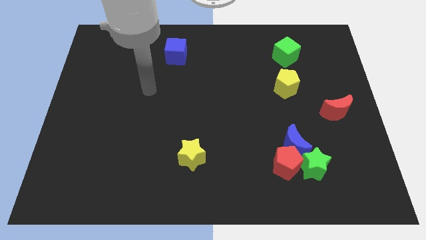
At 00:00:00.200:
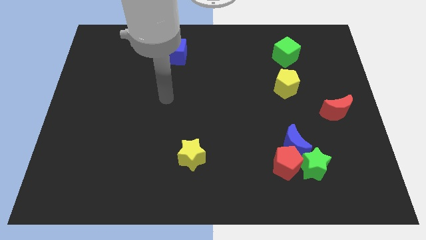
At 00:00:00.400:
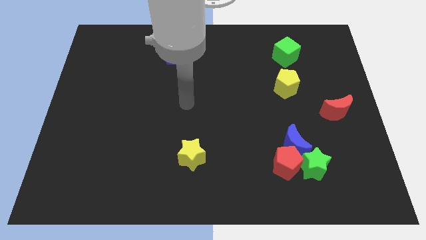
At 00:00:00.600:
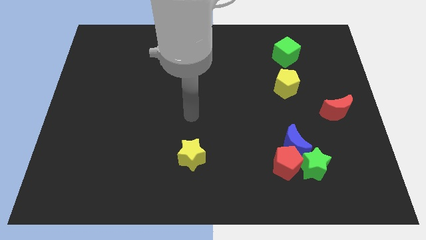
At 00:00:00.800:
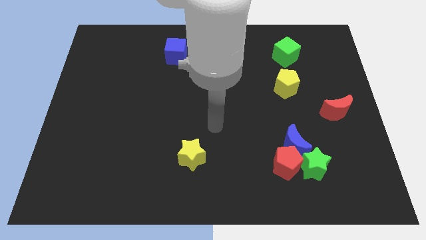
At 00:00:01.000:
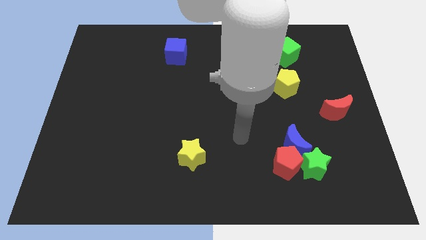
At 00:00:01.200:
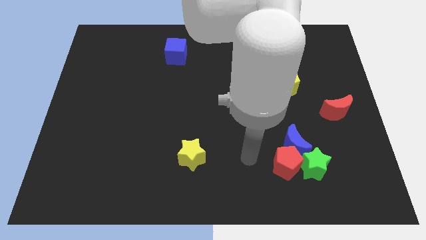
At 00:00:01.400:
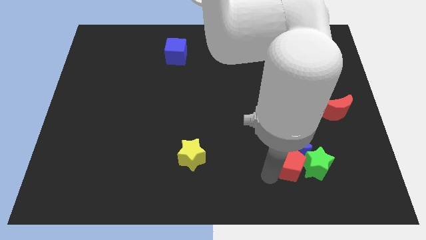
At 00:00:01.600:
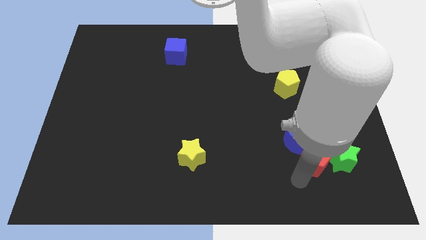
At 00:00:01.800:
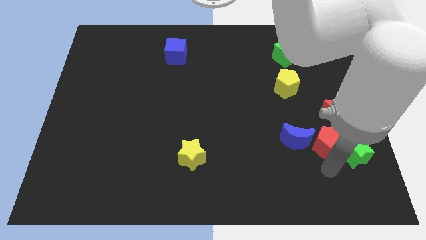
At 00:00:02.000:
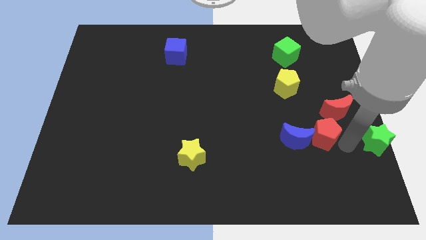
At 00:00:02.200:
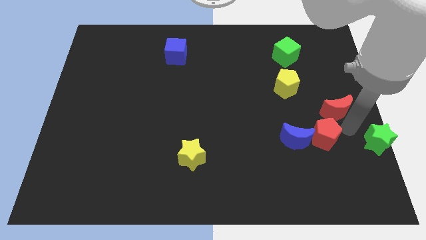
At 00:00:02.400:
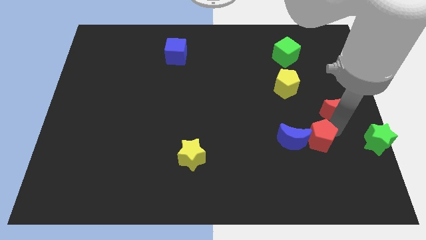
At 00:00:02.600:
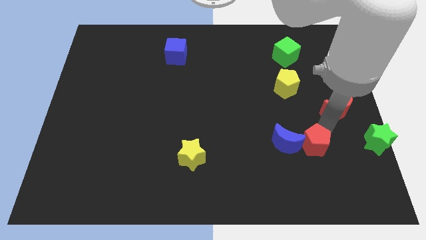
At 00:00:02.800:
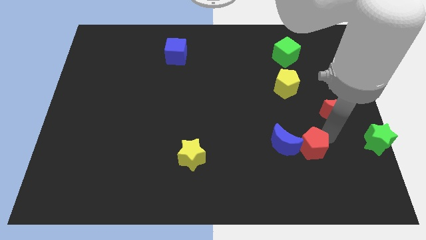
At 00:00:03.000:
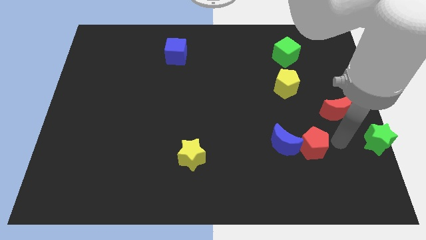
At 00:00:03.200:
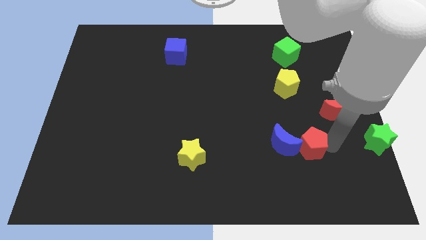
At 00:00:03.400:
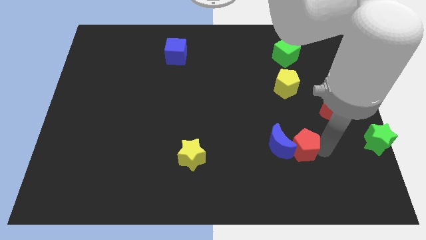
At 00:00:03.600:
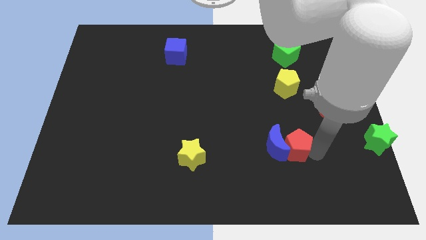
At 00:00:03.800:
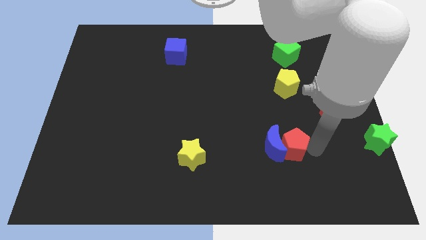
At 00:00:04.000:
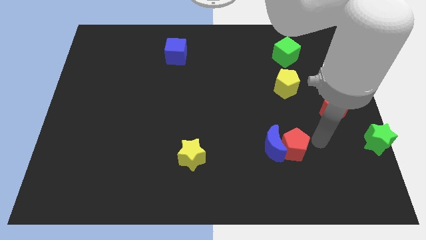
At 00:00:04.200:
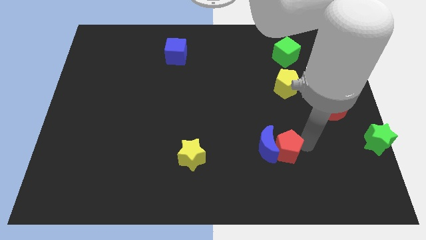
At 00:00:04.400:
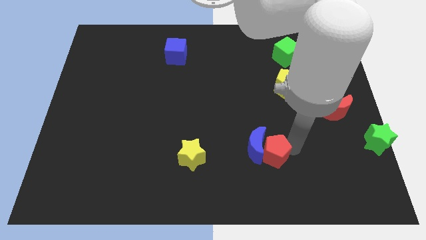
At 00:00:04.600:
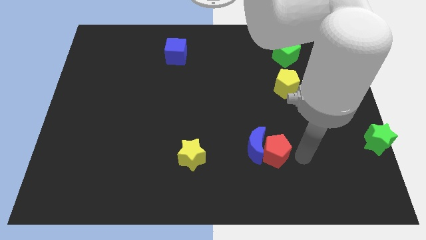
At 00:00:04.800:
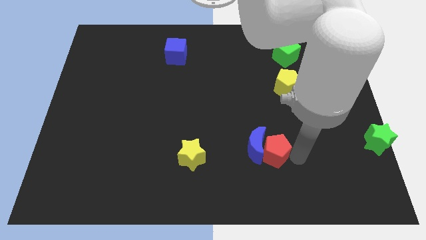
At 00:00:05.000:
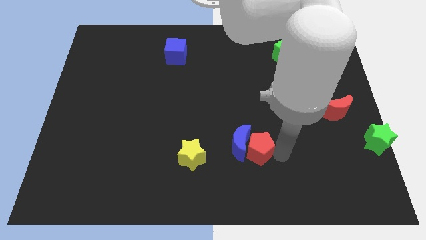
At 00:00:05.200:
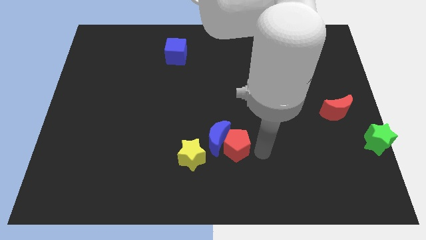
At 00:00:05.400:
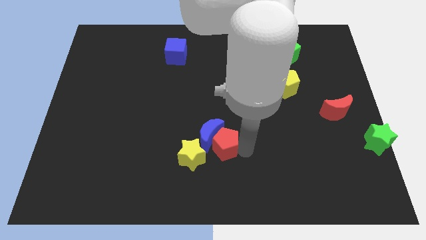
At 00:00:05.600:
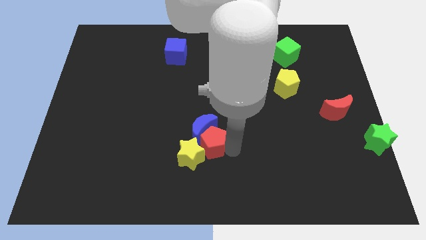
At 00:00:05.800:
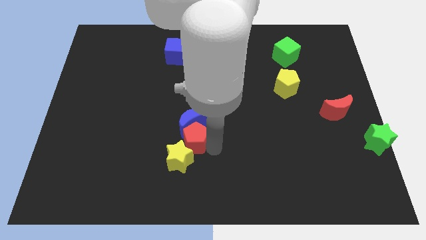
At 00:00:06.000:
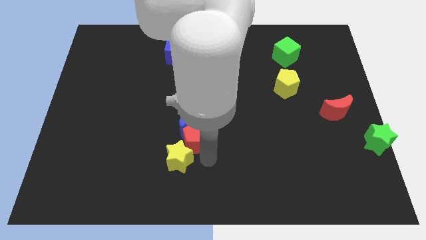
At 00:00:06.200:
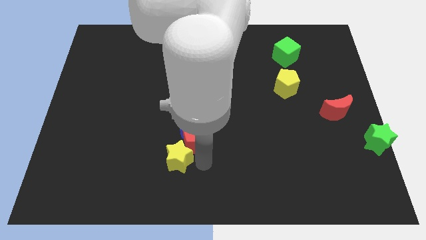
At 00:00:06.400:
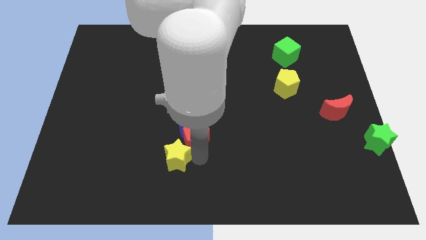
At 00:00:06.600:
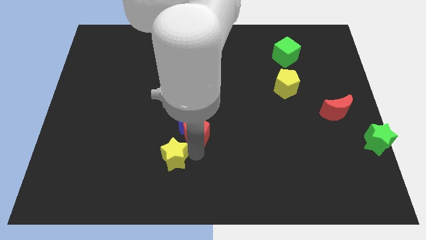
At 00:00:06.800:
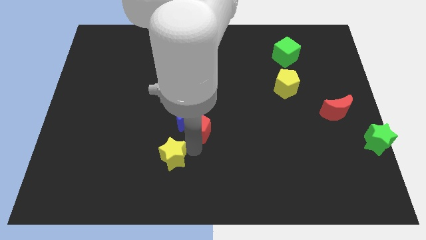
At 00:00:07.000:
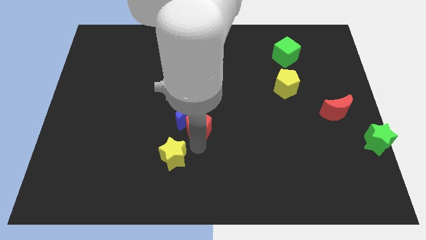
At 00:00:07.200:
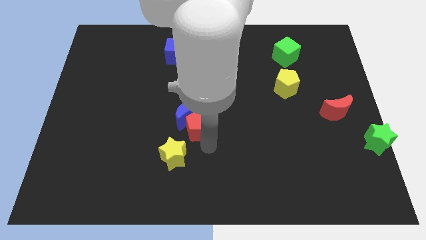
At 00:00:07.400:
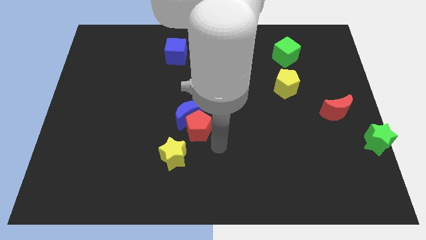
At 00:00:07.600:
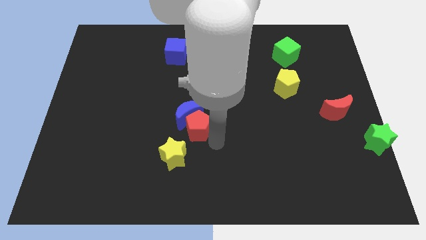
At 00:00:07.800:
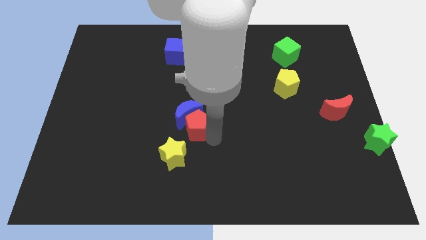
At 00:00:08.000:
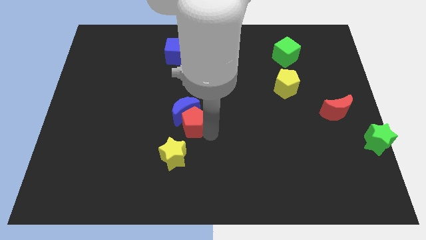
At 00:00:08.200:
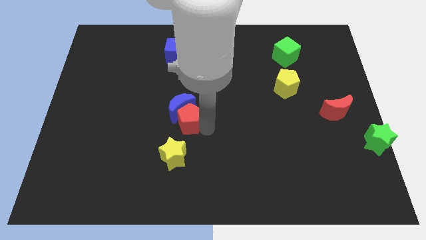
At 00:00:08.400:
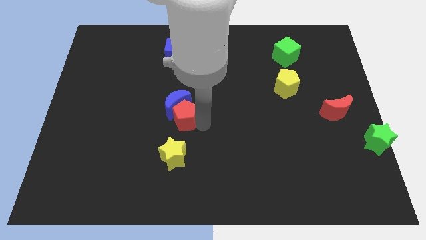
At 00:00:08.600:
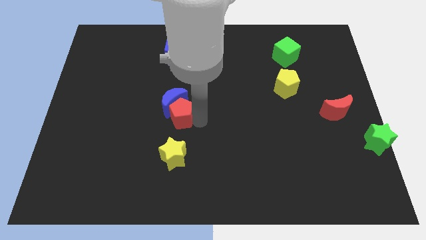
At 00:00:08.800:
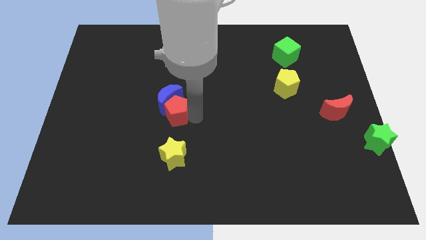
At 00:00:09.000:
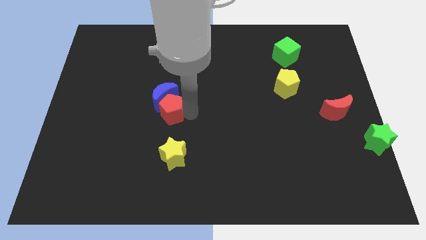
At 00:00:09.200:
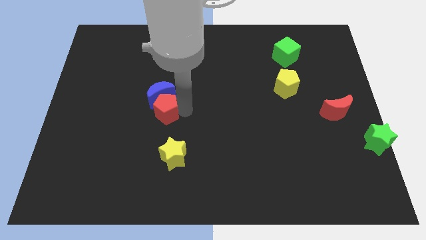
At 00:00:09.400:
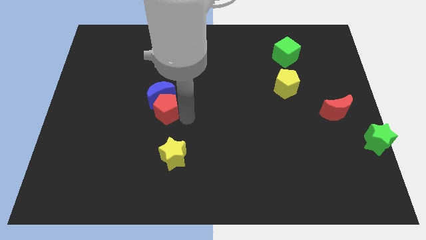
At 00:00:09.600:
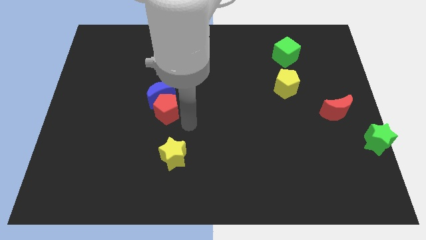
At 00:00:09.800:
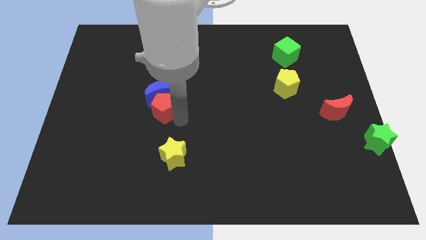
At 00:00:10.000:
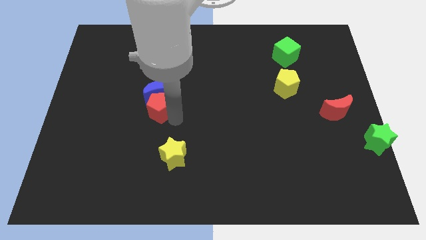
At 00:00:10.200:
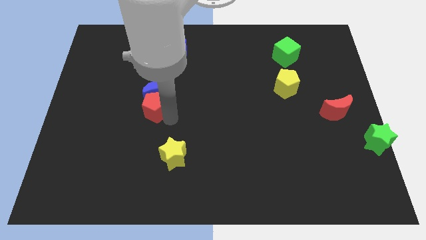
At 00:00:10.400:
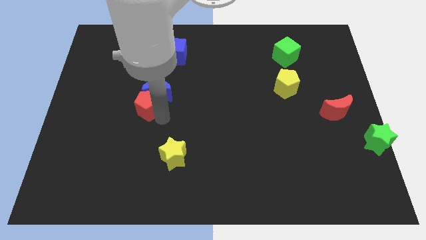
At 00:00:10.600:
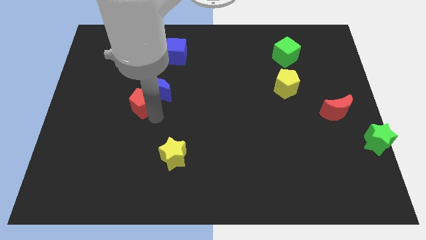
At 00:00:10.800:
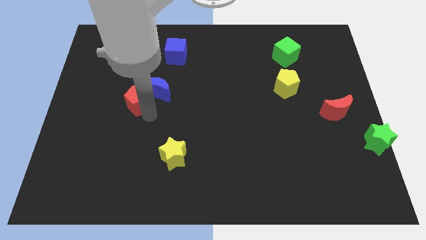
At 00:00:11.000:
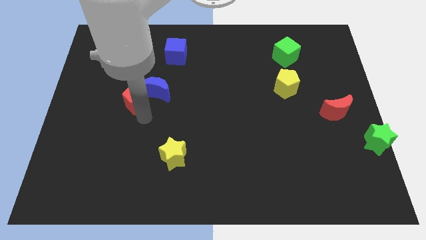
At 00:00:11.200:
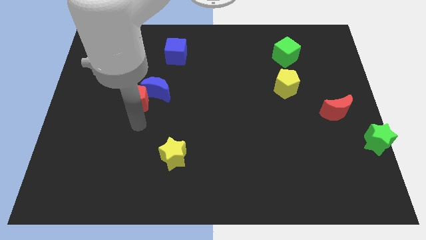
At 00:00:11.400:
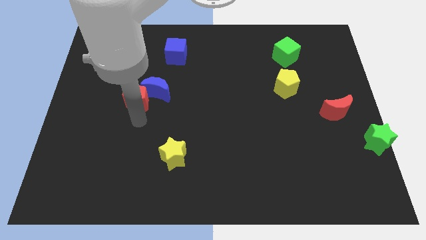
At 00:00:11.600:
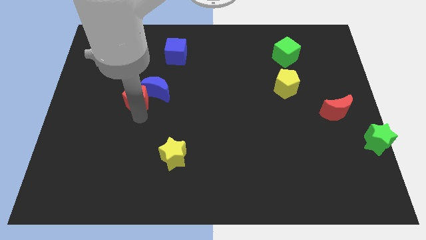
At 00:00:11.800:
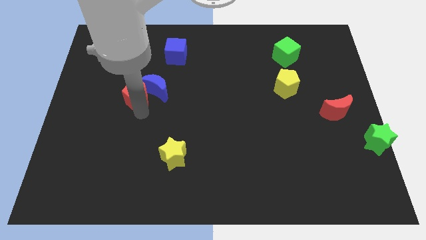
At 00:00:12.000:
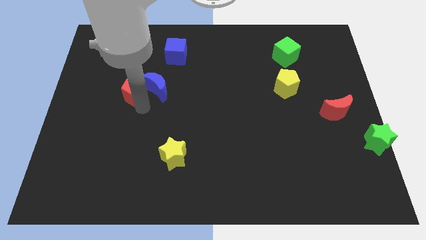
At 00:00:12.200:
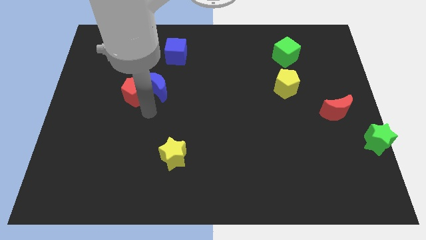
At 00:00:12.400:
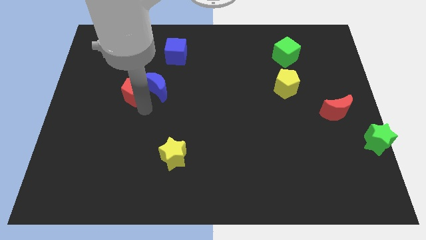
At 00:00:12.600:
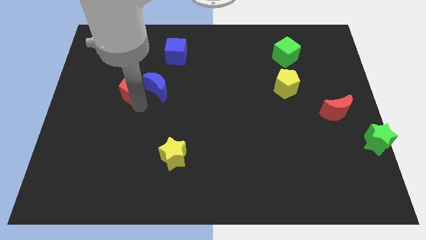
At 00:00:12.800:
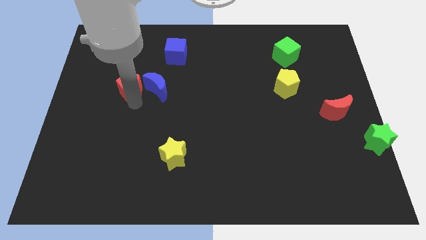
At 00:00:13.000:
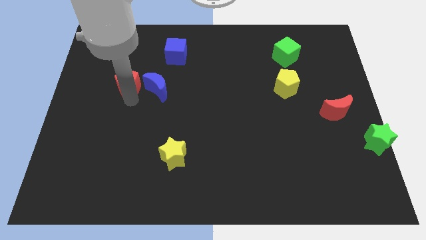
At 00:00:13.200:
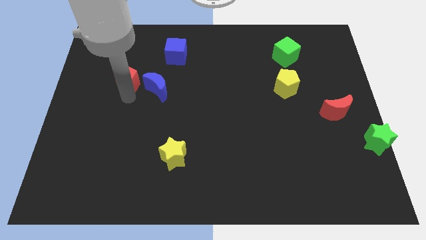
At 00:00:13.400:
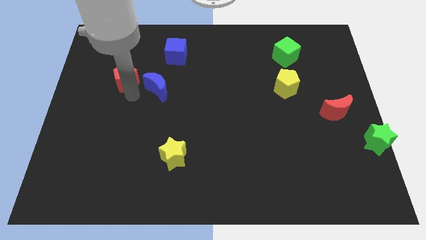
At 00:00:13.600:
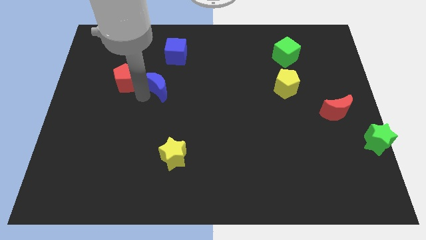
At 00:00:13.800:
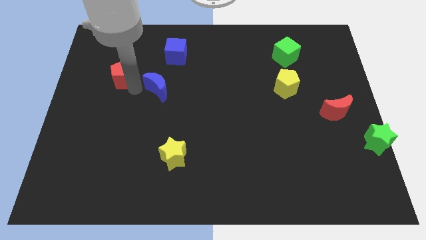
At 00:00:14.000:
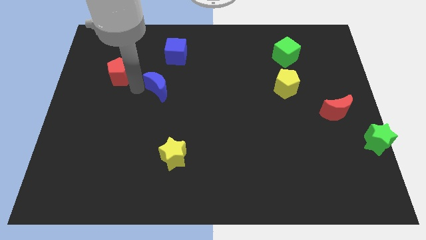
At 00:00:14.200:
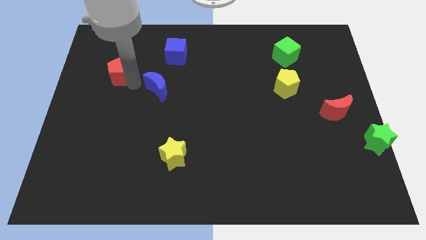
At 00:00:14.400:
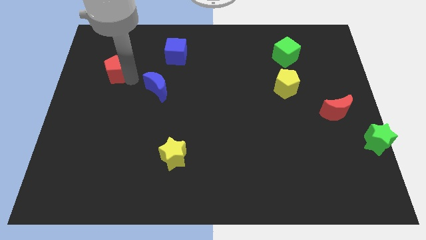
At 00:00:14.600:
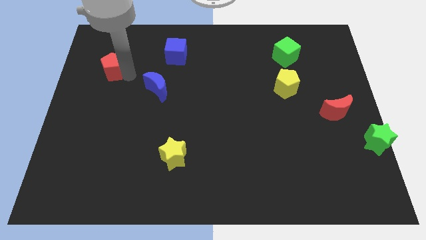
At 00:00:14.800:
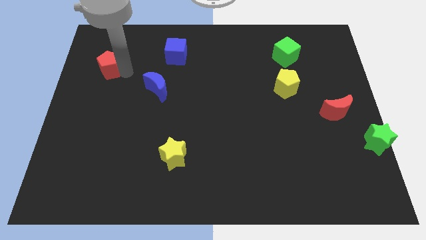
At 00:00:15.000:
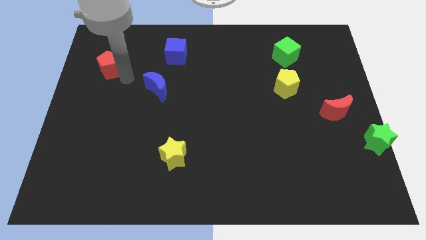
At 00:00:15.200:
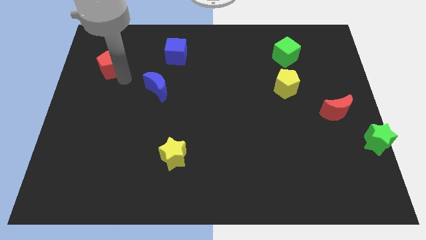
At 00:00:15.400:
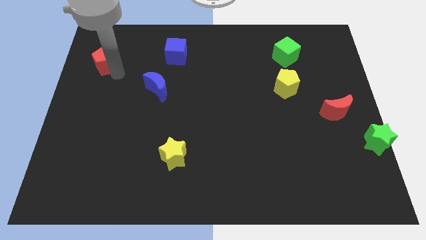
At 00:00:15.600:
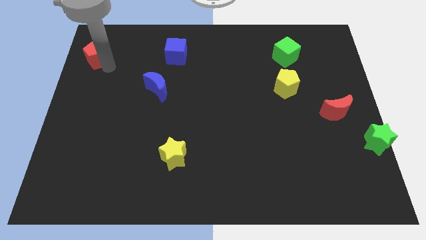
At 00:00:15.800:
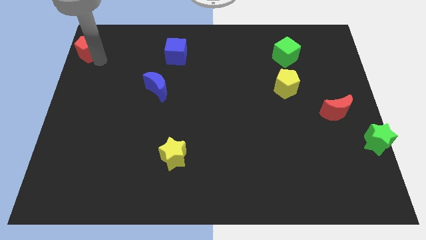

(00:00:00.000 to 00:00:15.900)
move the red pentagon to the top left
